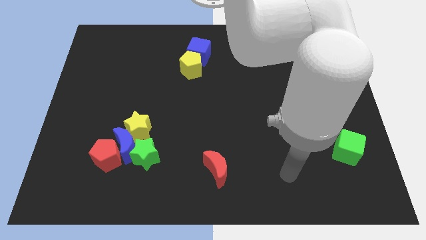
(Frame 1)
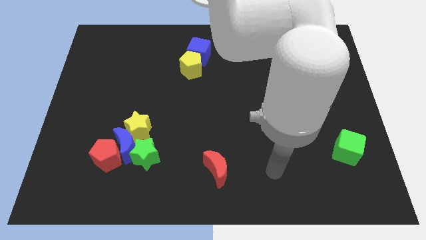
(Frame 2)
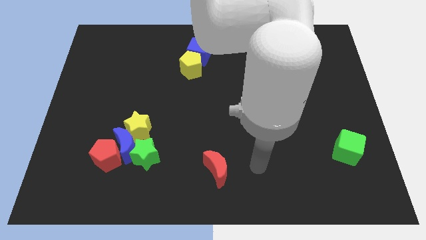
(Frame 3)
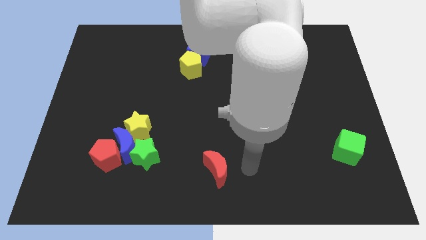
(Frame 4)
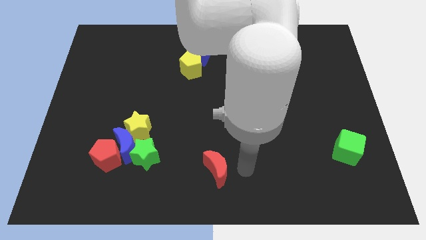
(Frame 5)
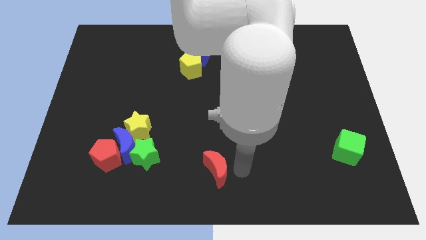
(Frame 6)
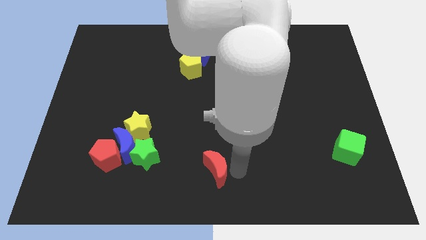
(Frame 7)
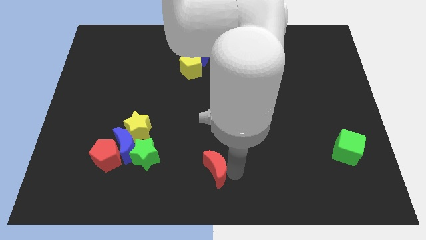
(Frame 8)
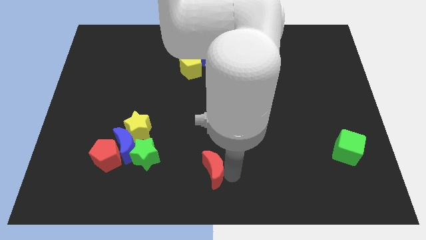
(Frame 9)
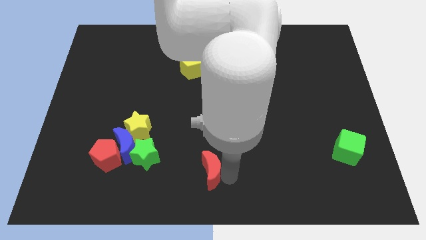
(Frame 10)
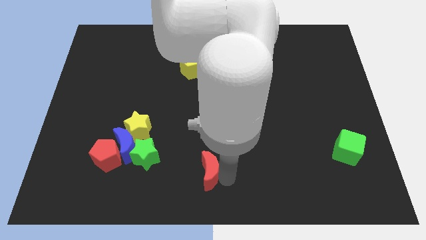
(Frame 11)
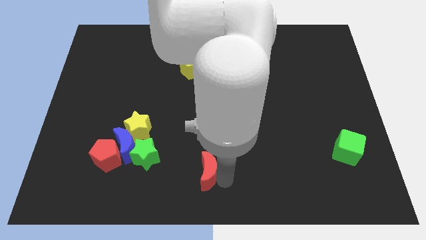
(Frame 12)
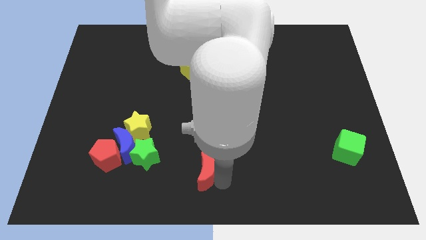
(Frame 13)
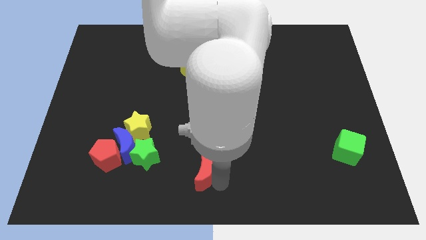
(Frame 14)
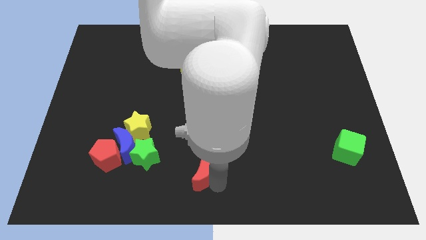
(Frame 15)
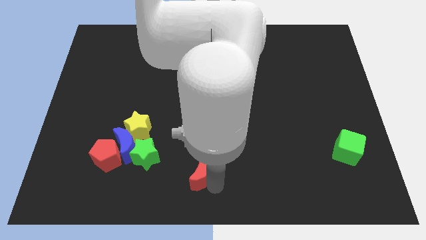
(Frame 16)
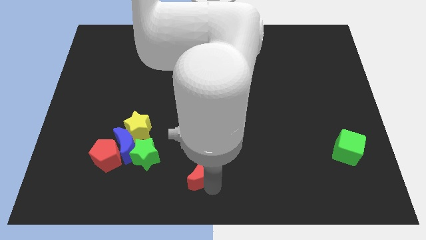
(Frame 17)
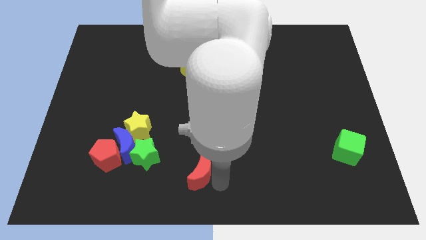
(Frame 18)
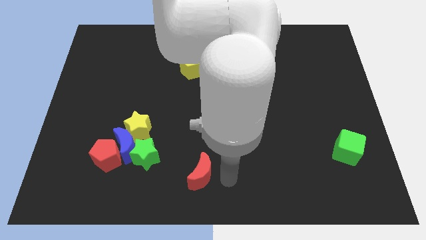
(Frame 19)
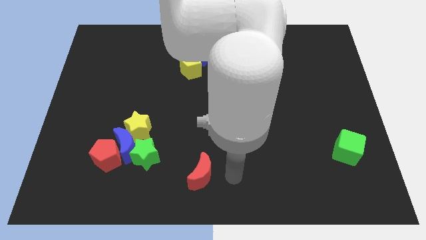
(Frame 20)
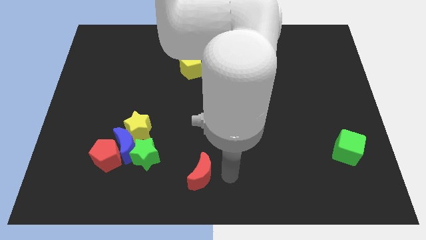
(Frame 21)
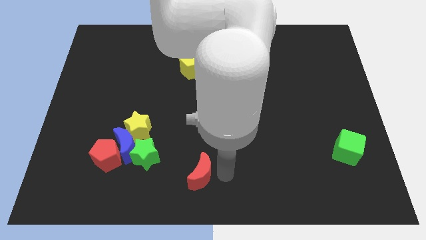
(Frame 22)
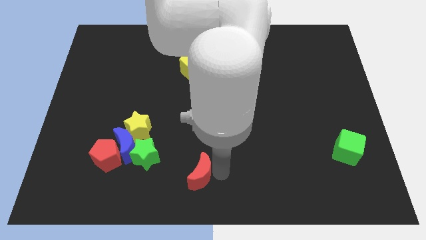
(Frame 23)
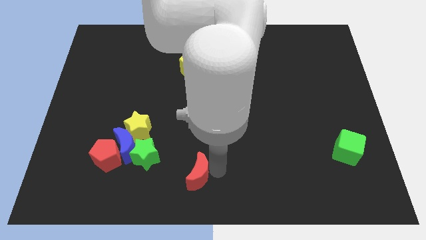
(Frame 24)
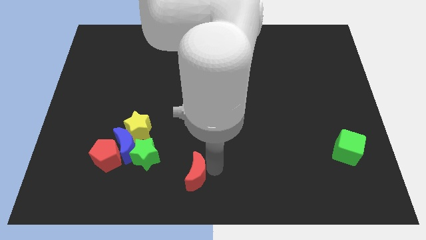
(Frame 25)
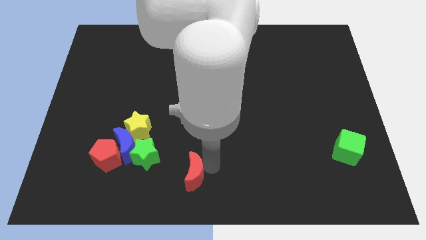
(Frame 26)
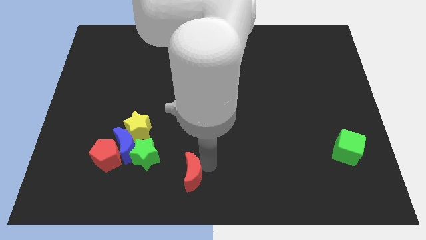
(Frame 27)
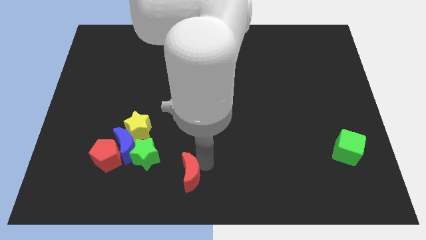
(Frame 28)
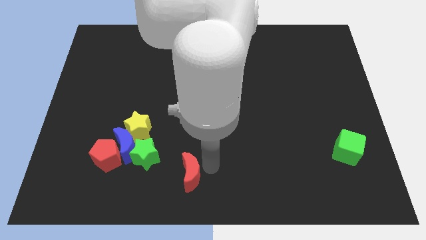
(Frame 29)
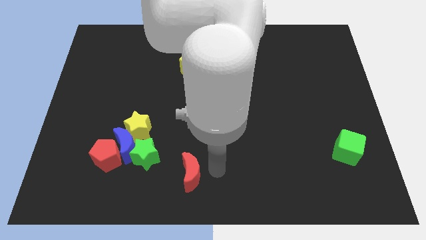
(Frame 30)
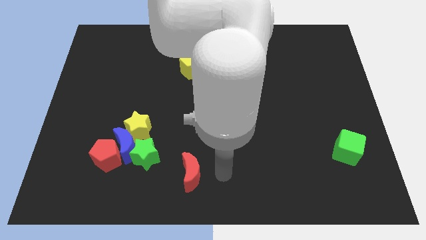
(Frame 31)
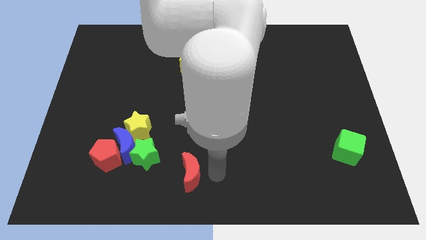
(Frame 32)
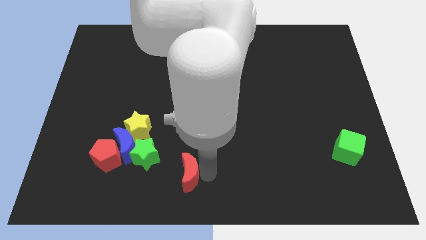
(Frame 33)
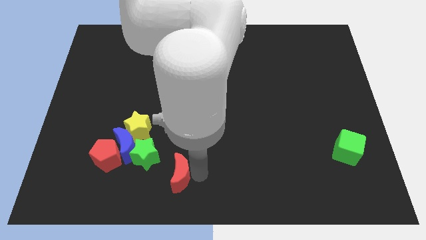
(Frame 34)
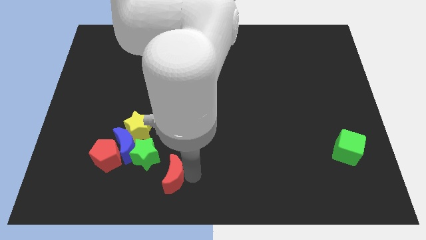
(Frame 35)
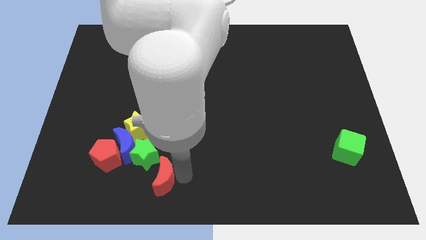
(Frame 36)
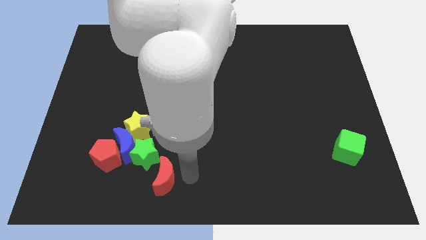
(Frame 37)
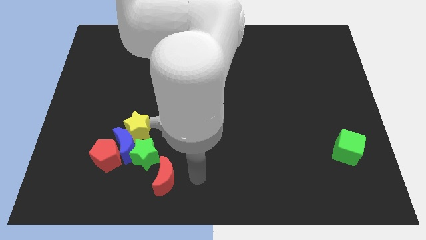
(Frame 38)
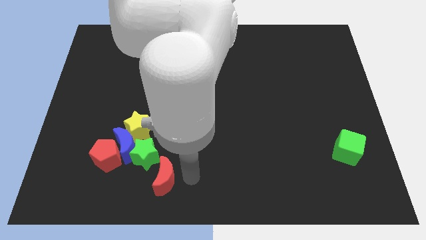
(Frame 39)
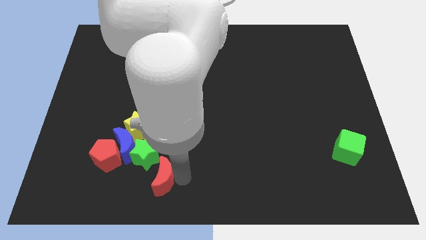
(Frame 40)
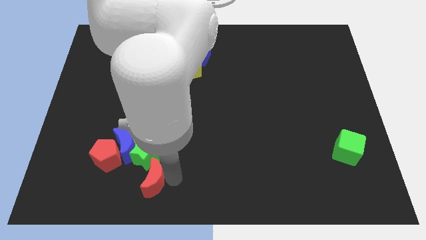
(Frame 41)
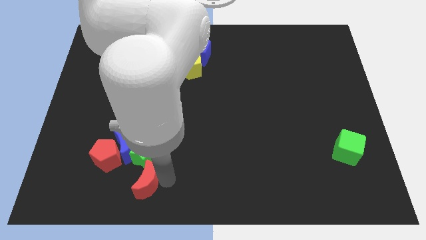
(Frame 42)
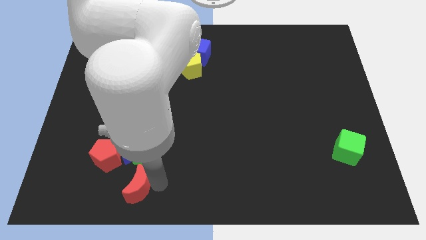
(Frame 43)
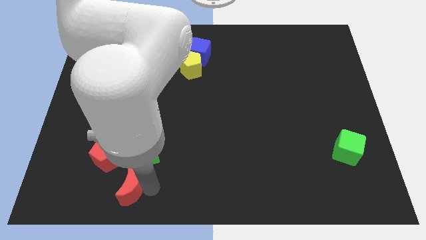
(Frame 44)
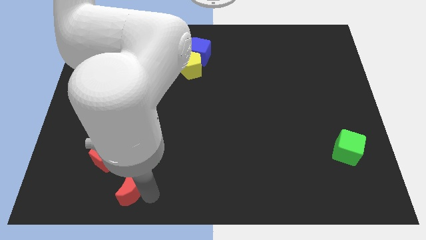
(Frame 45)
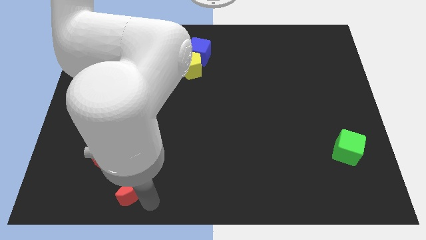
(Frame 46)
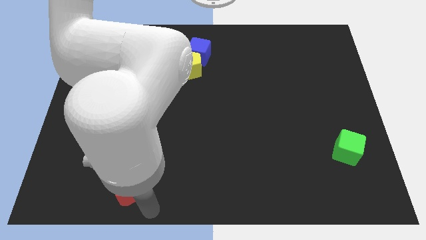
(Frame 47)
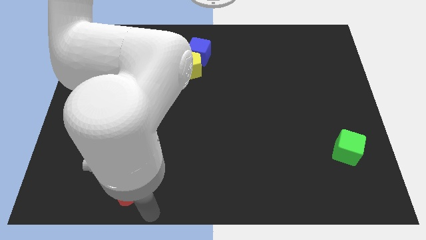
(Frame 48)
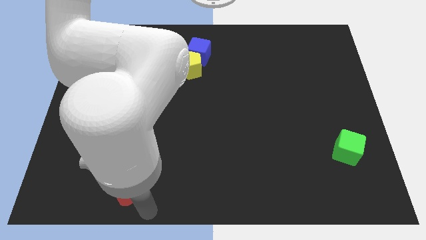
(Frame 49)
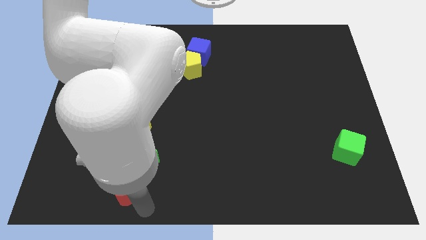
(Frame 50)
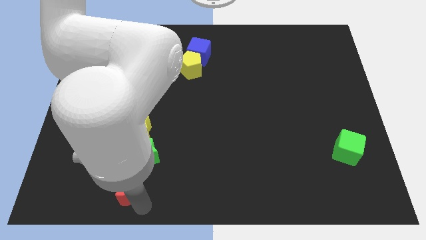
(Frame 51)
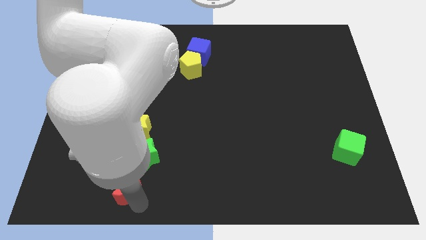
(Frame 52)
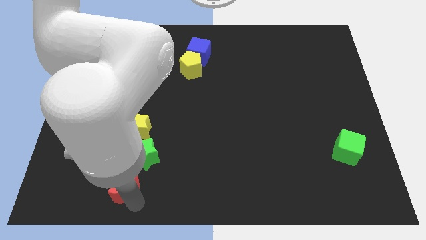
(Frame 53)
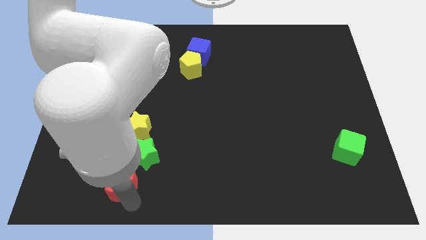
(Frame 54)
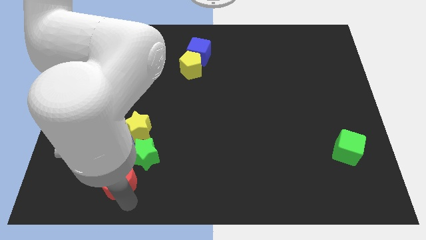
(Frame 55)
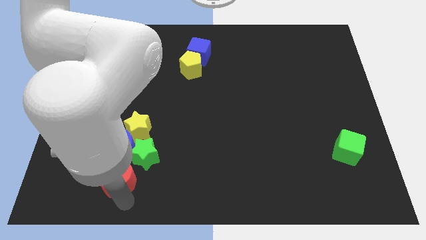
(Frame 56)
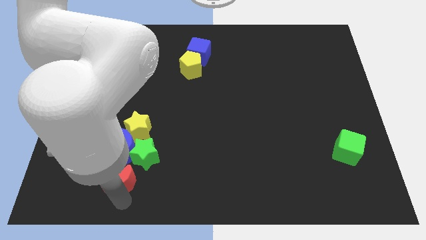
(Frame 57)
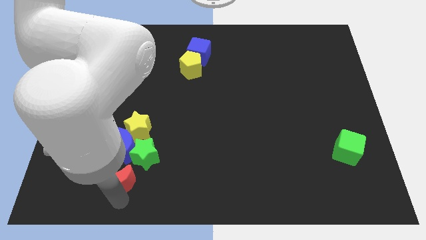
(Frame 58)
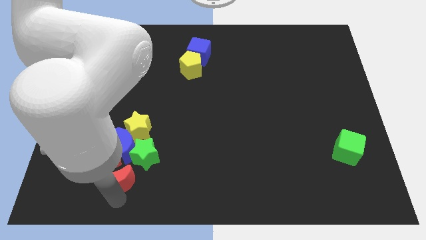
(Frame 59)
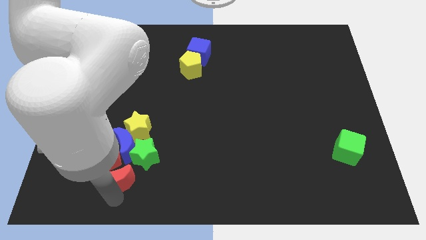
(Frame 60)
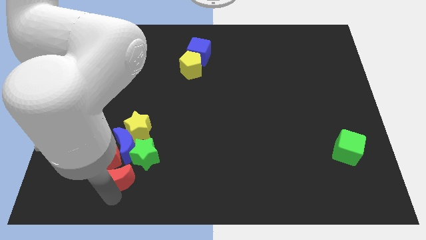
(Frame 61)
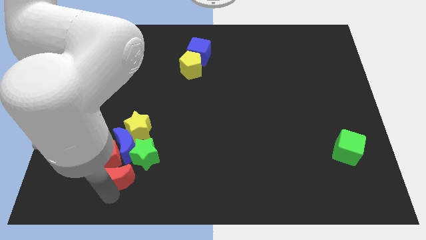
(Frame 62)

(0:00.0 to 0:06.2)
push the red moon towards the red pentagon
